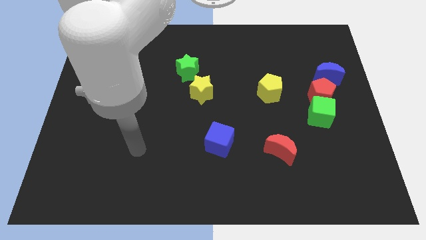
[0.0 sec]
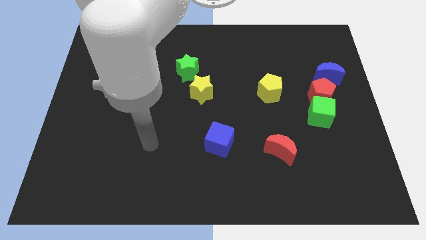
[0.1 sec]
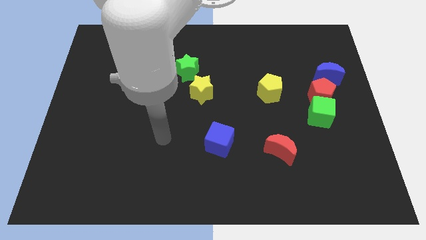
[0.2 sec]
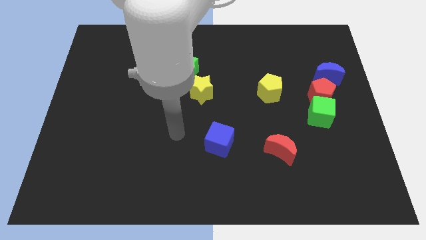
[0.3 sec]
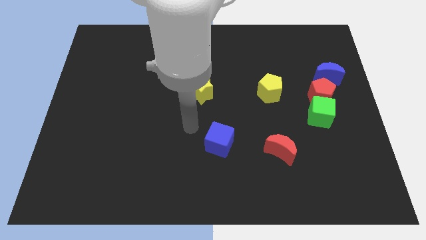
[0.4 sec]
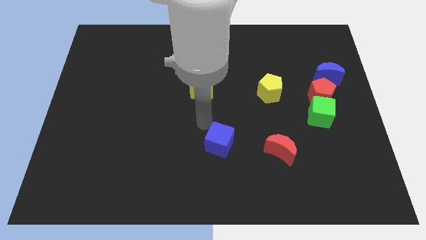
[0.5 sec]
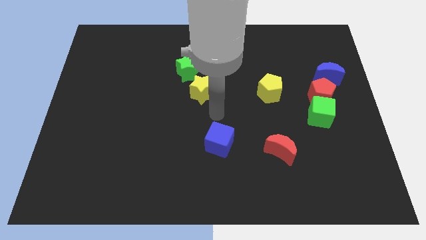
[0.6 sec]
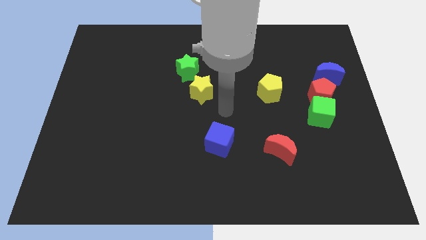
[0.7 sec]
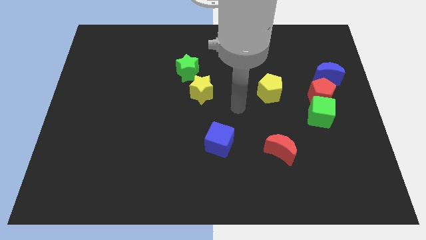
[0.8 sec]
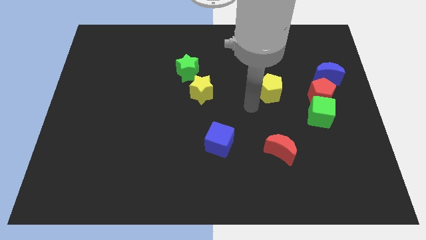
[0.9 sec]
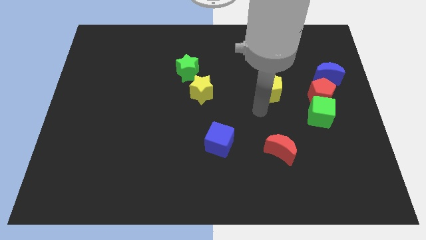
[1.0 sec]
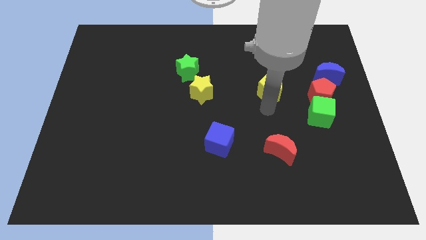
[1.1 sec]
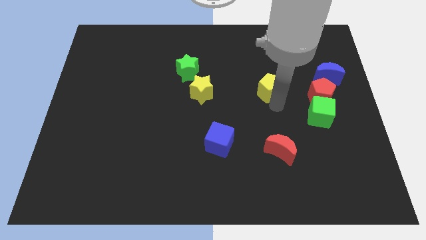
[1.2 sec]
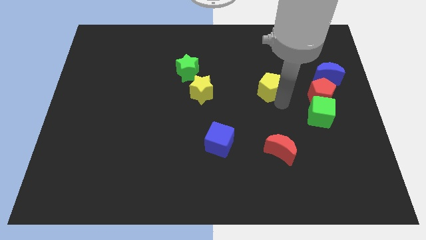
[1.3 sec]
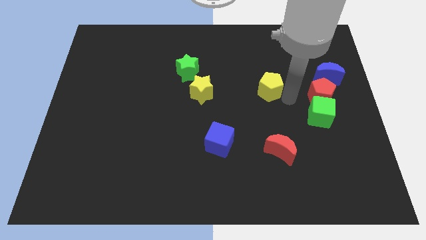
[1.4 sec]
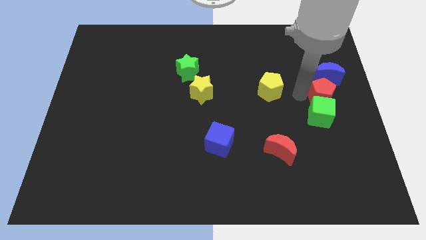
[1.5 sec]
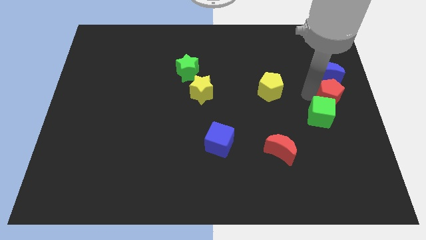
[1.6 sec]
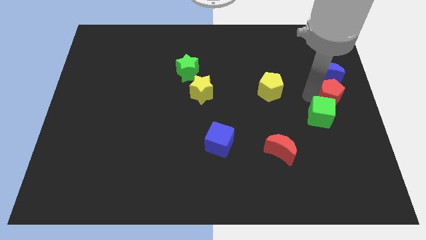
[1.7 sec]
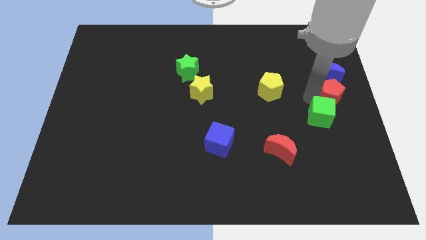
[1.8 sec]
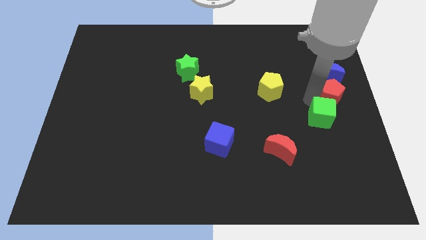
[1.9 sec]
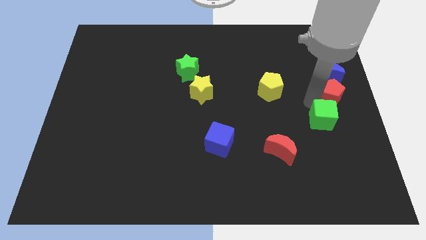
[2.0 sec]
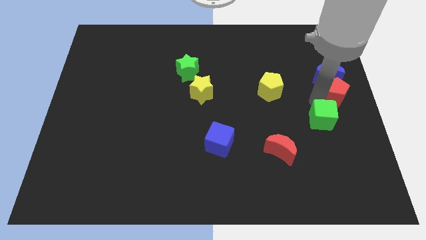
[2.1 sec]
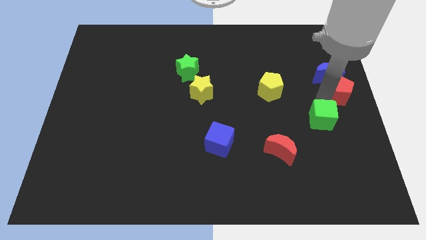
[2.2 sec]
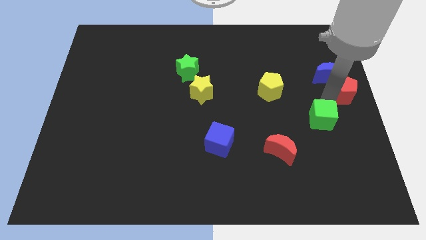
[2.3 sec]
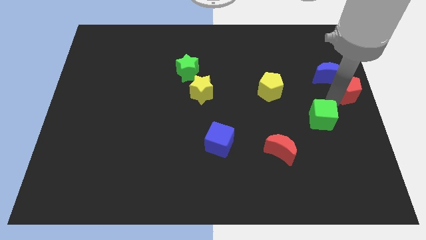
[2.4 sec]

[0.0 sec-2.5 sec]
separate the green cube from the red pentagon

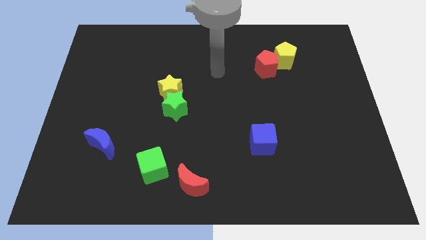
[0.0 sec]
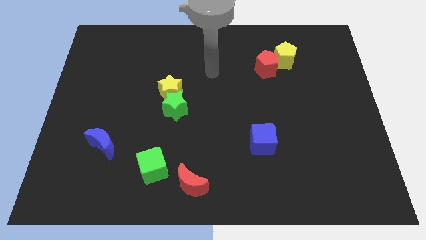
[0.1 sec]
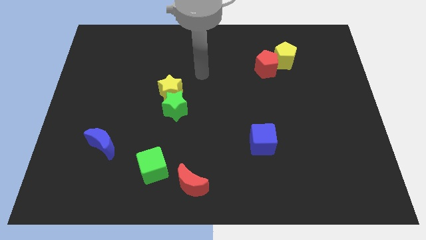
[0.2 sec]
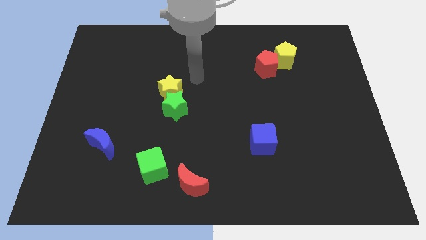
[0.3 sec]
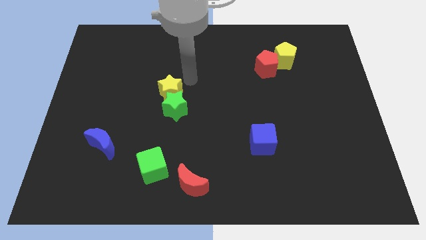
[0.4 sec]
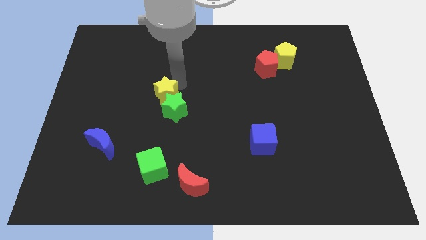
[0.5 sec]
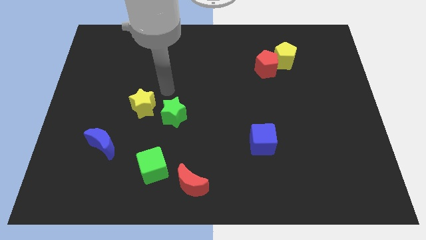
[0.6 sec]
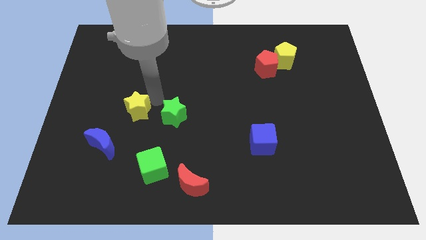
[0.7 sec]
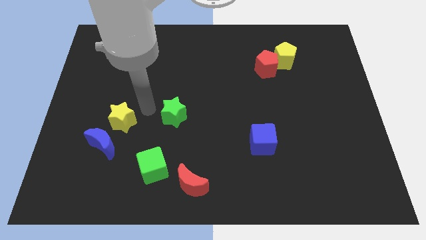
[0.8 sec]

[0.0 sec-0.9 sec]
separate the green star from the yellow star

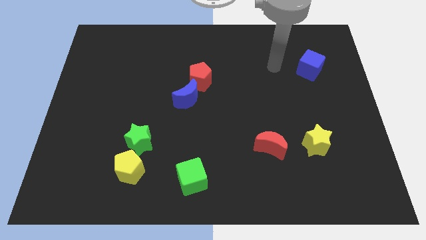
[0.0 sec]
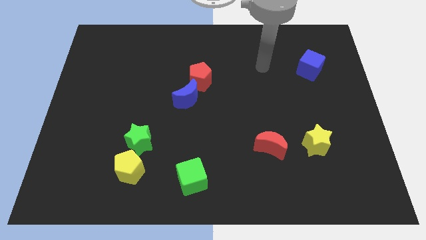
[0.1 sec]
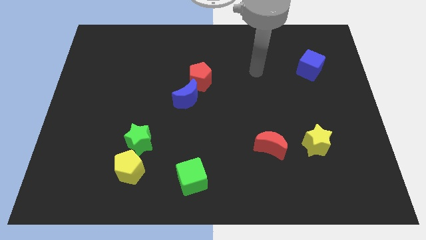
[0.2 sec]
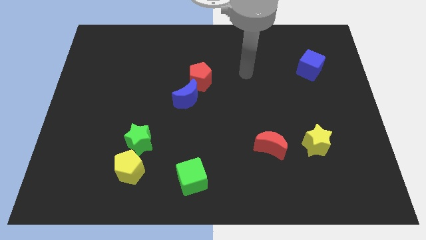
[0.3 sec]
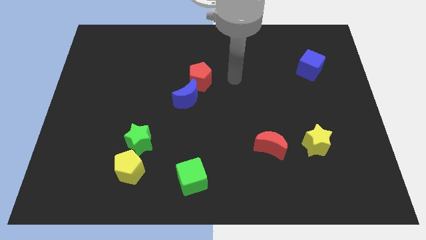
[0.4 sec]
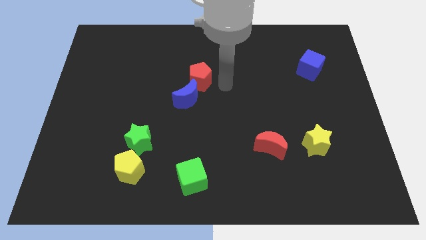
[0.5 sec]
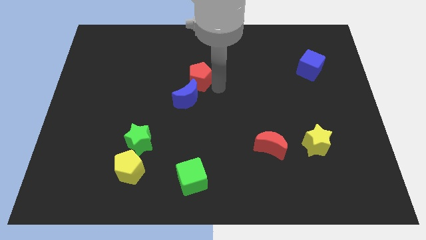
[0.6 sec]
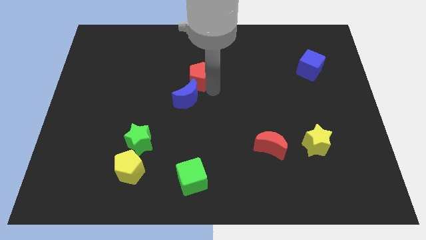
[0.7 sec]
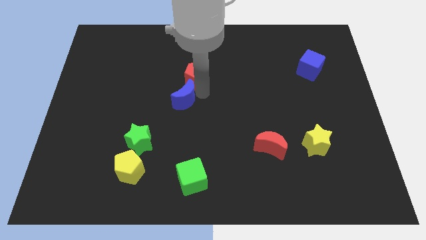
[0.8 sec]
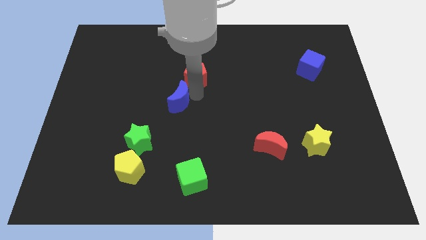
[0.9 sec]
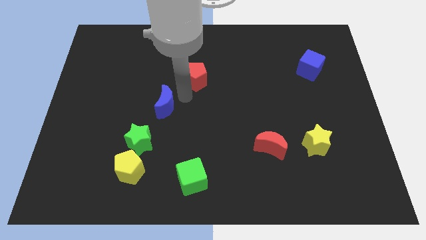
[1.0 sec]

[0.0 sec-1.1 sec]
pull the red pentagon apart from the blue moon

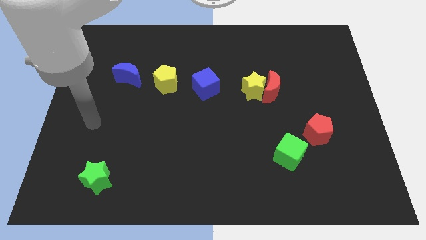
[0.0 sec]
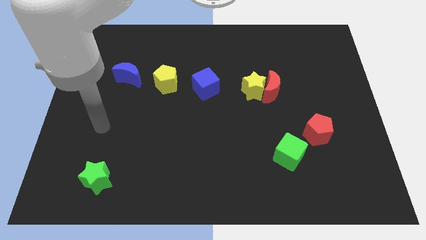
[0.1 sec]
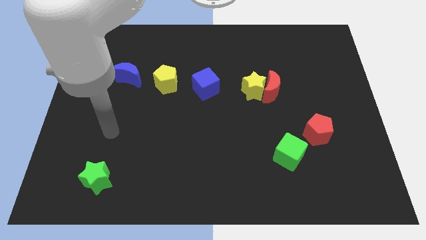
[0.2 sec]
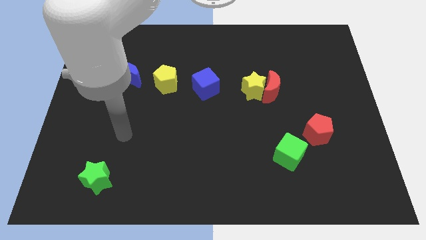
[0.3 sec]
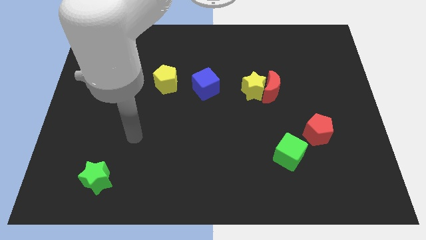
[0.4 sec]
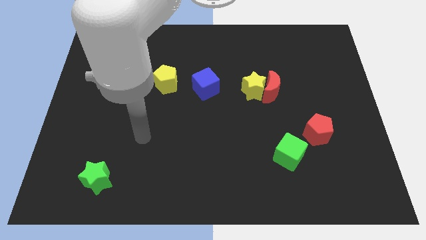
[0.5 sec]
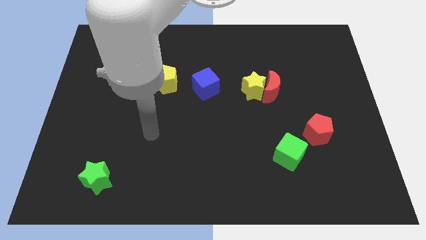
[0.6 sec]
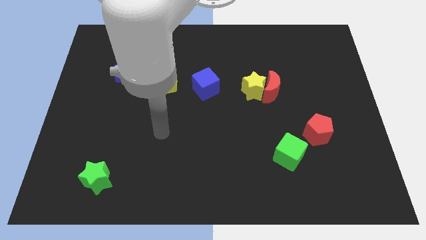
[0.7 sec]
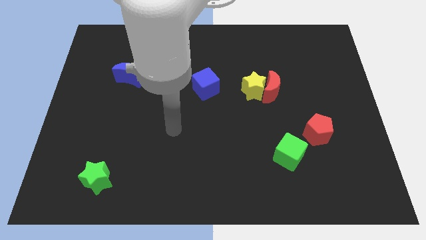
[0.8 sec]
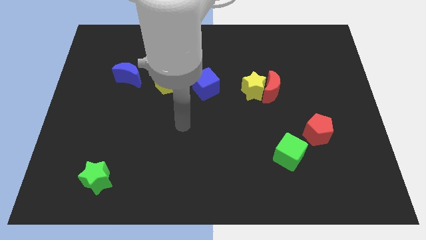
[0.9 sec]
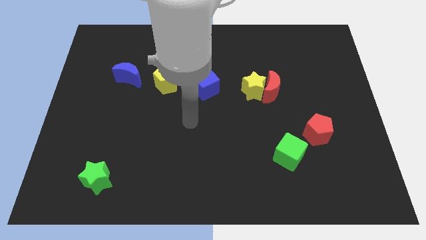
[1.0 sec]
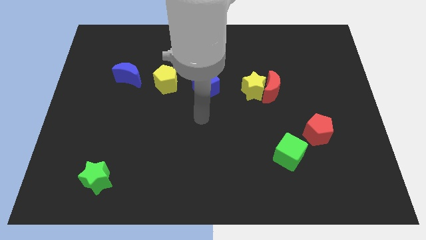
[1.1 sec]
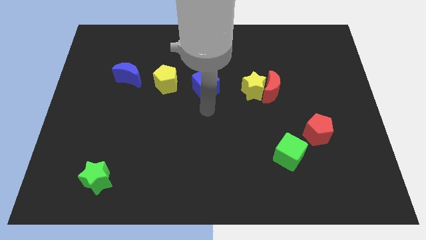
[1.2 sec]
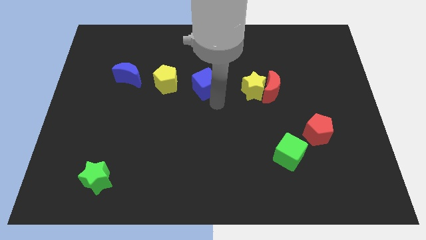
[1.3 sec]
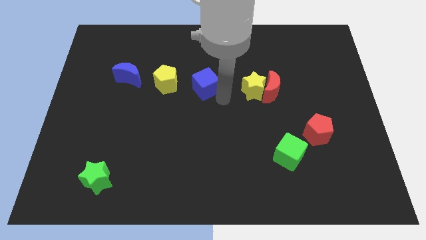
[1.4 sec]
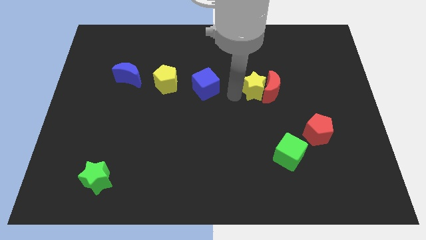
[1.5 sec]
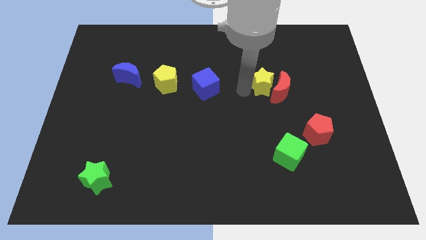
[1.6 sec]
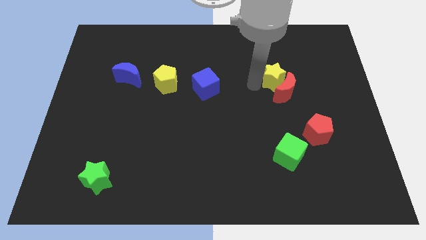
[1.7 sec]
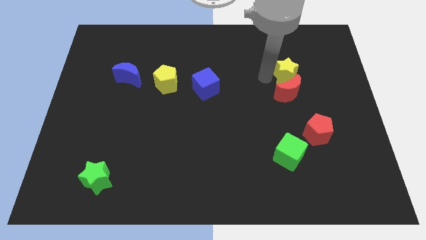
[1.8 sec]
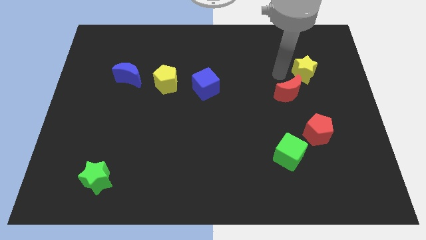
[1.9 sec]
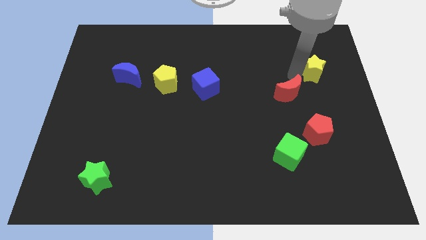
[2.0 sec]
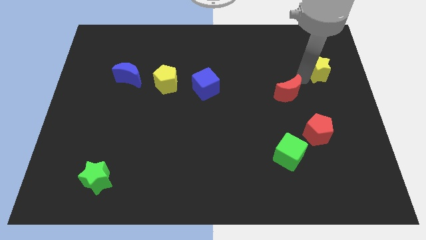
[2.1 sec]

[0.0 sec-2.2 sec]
pull the red moon apart from the yellow star

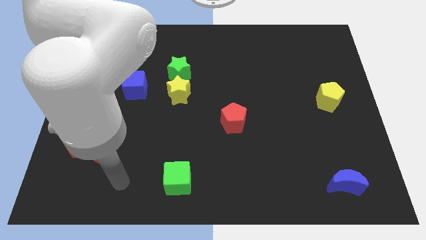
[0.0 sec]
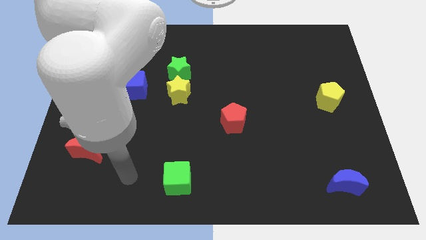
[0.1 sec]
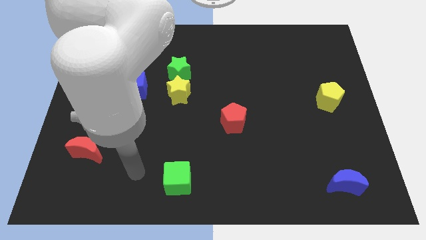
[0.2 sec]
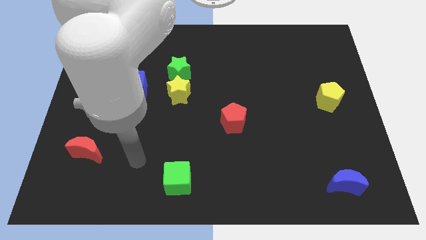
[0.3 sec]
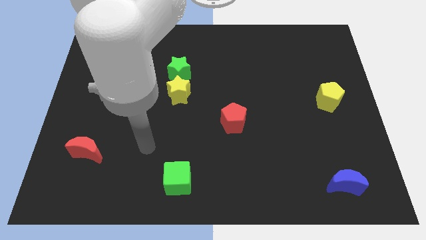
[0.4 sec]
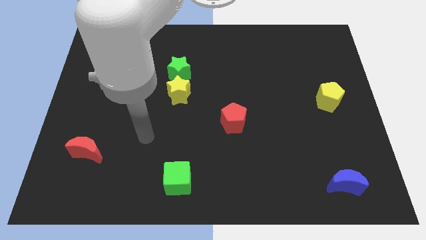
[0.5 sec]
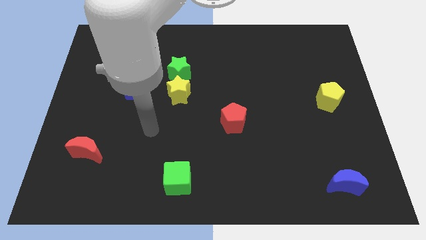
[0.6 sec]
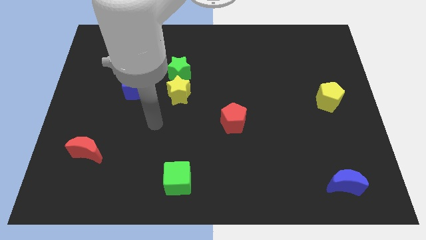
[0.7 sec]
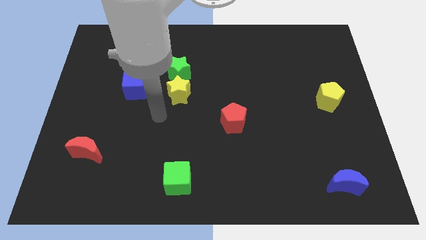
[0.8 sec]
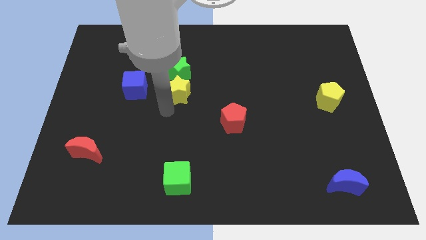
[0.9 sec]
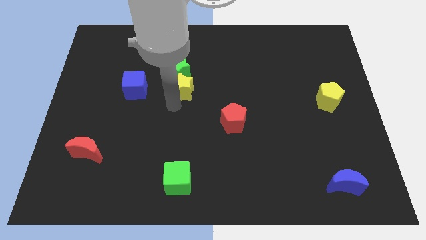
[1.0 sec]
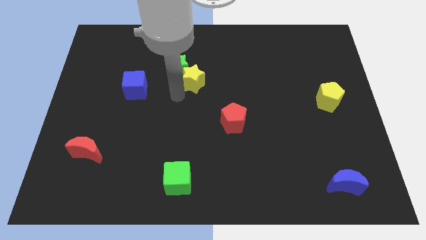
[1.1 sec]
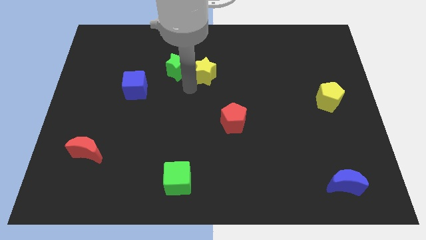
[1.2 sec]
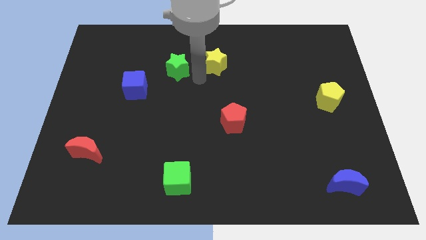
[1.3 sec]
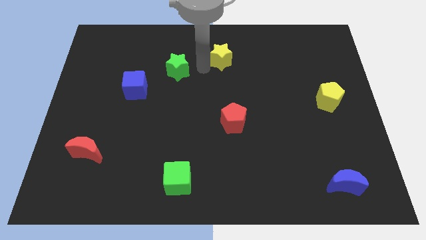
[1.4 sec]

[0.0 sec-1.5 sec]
pull the green star apart from the yellow star

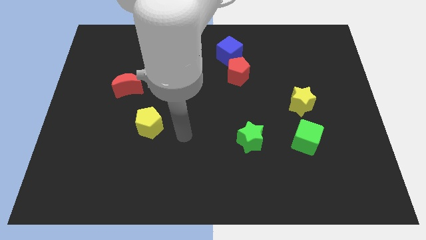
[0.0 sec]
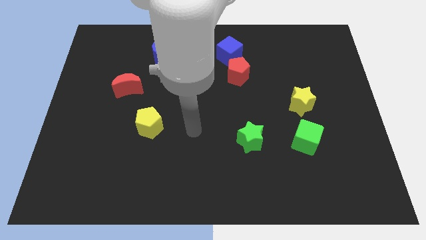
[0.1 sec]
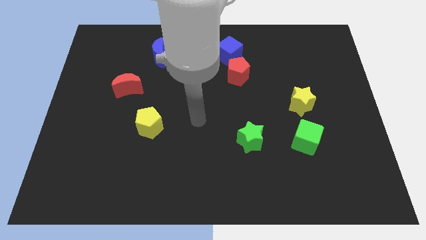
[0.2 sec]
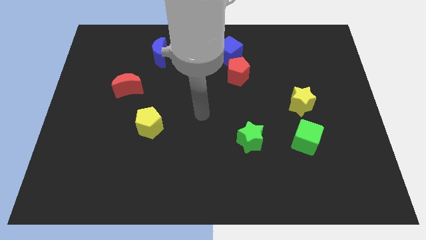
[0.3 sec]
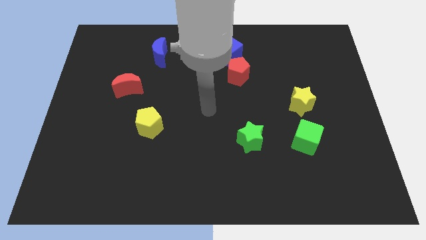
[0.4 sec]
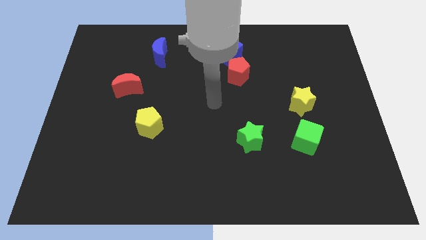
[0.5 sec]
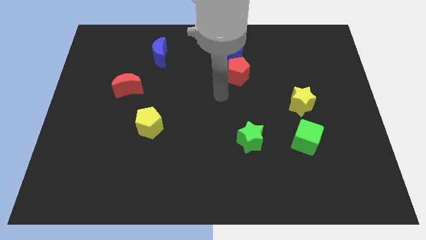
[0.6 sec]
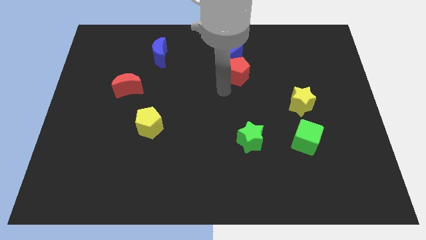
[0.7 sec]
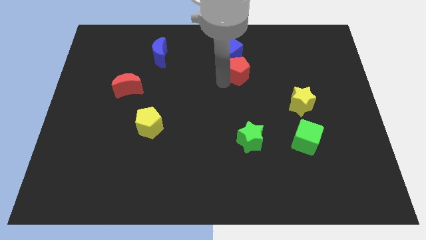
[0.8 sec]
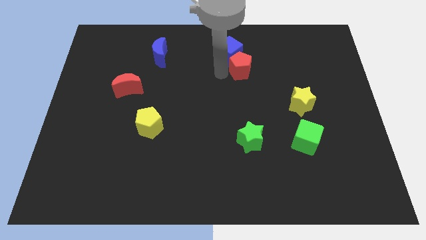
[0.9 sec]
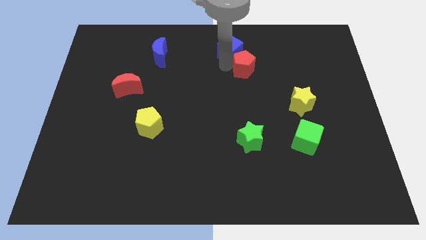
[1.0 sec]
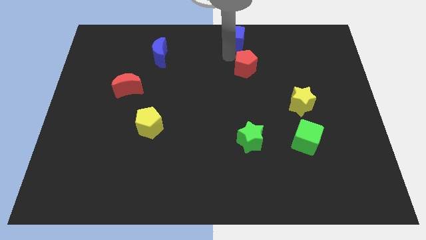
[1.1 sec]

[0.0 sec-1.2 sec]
move the red pentagon away from the blue cube
